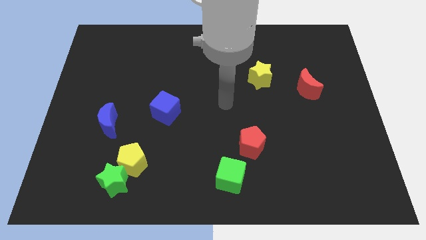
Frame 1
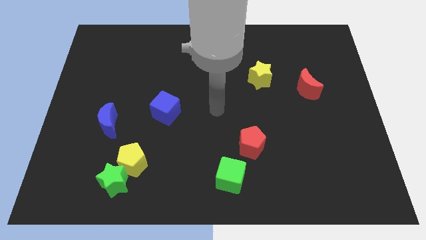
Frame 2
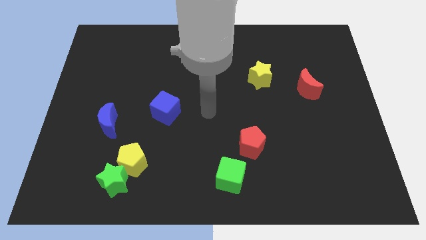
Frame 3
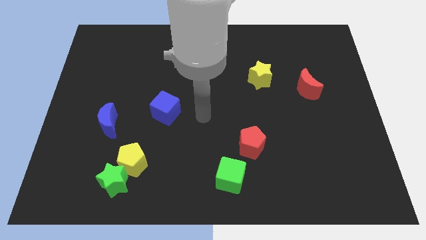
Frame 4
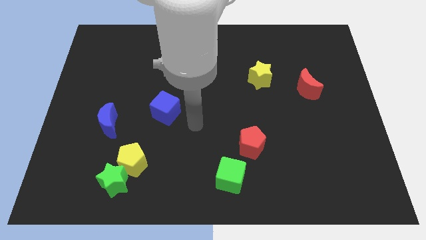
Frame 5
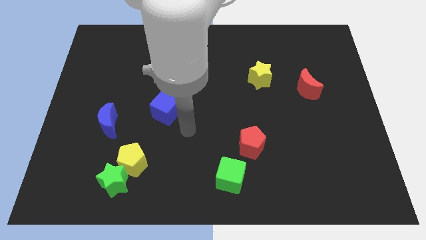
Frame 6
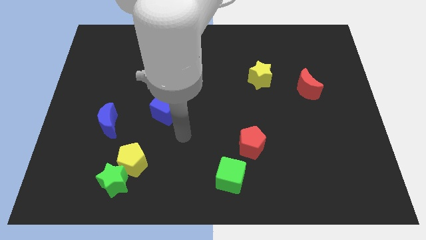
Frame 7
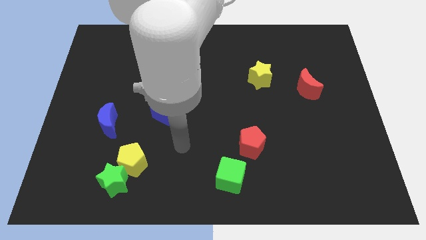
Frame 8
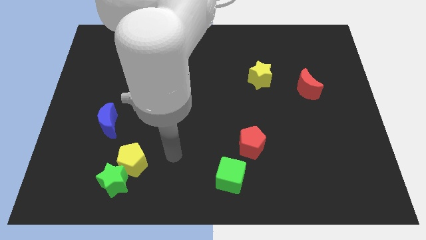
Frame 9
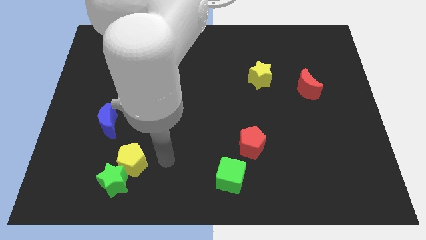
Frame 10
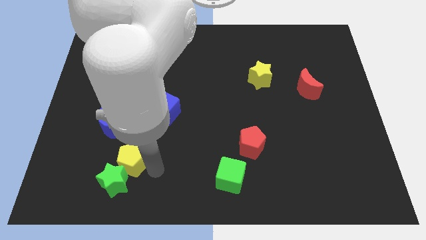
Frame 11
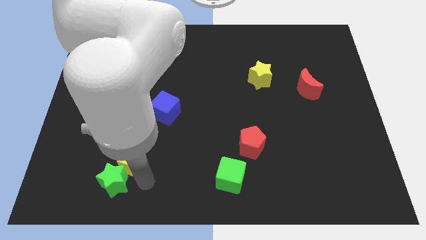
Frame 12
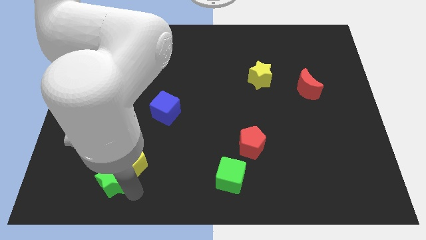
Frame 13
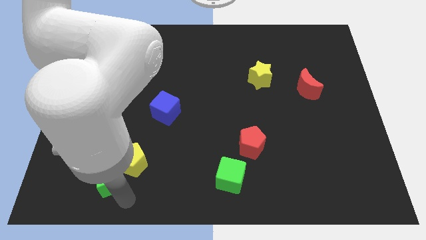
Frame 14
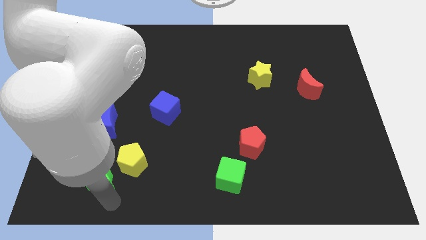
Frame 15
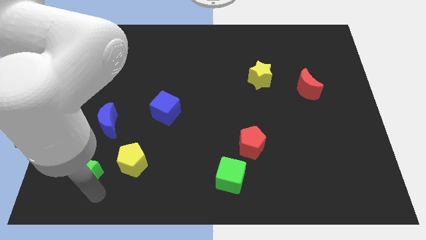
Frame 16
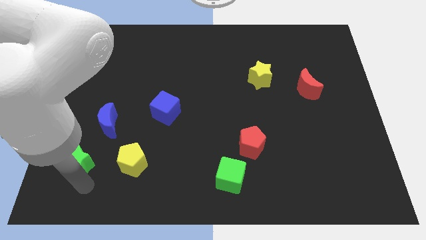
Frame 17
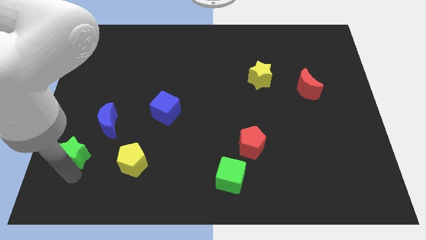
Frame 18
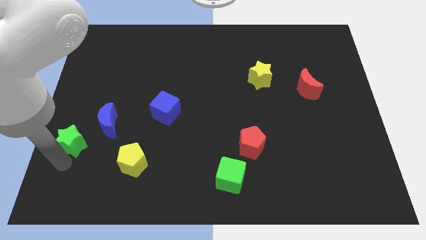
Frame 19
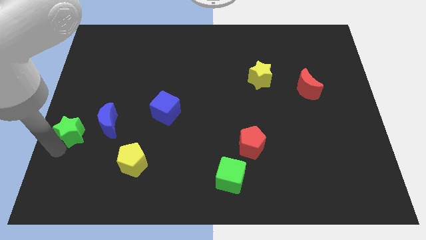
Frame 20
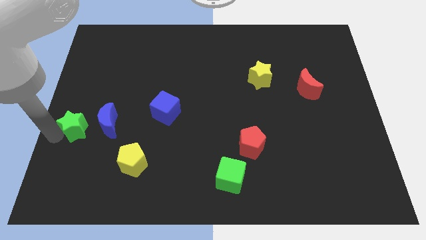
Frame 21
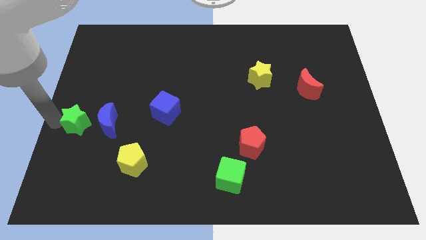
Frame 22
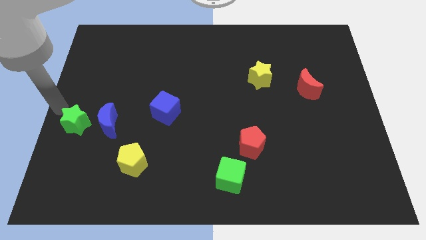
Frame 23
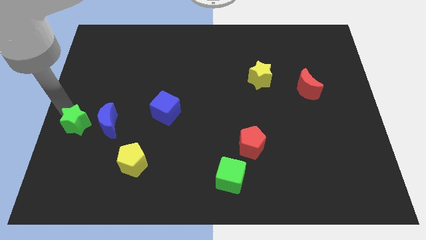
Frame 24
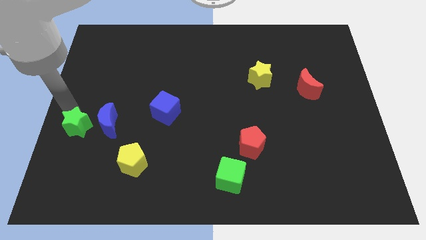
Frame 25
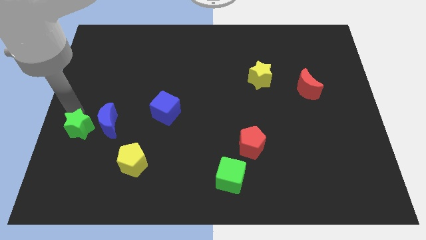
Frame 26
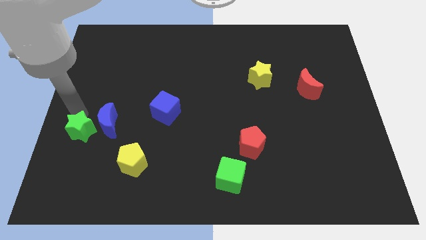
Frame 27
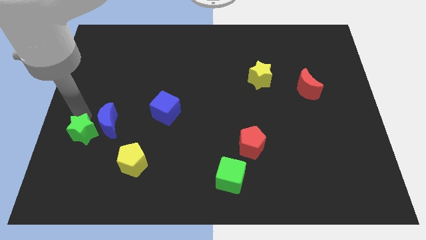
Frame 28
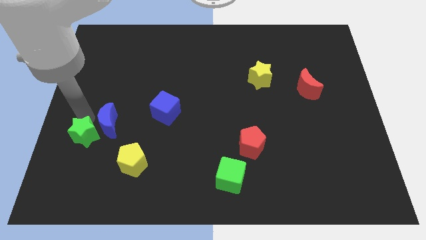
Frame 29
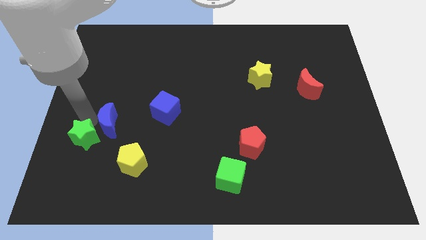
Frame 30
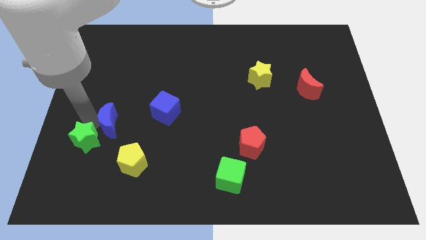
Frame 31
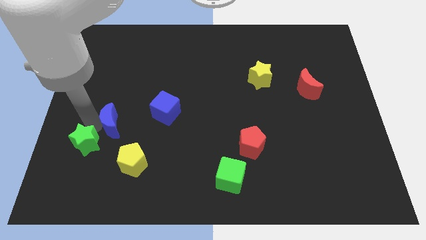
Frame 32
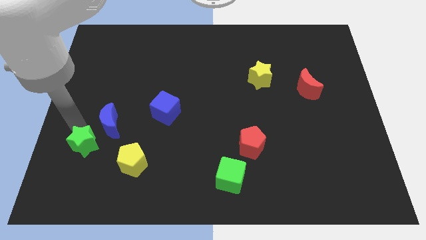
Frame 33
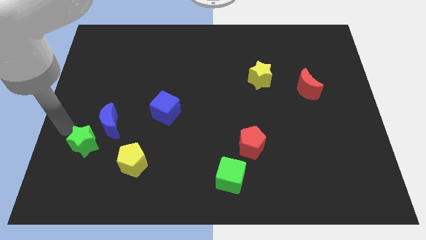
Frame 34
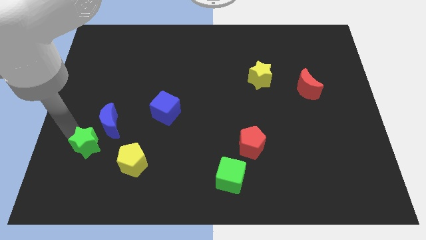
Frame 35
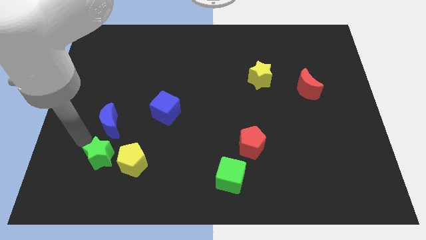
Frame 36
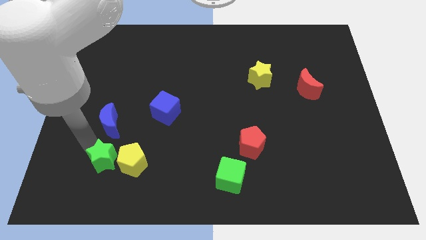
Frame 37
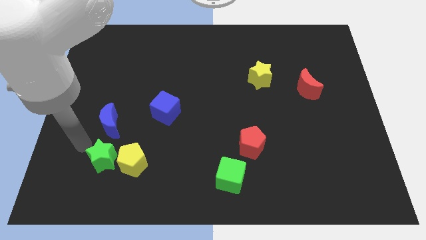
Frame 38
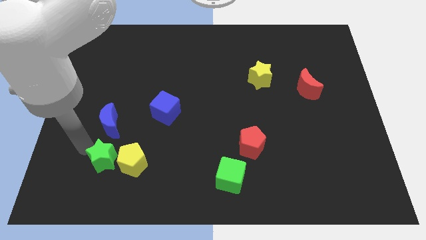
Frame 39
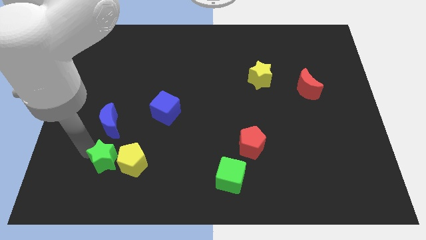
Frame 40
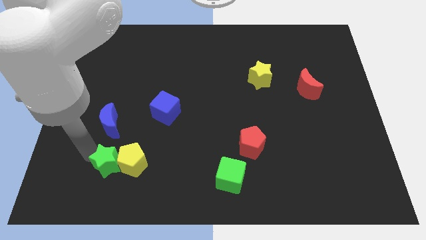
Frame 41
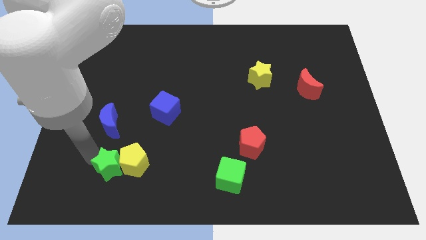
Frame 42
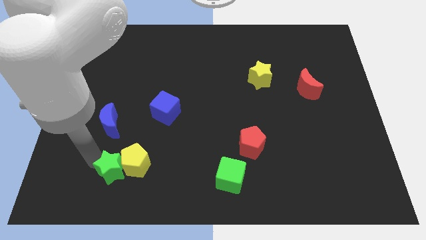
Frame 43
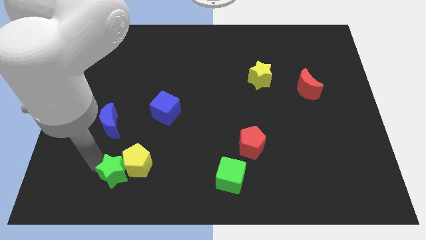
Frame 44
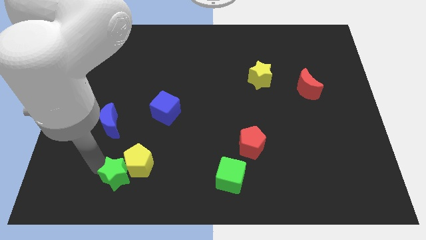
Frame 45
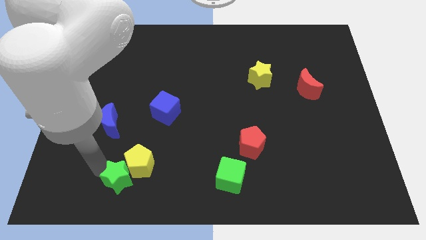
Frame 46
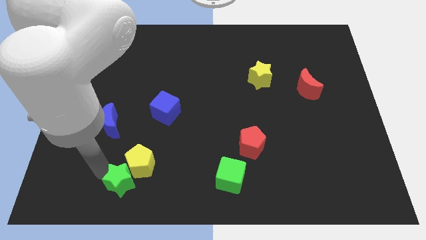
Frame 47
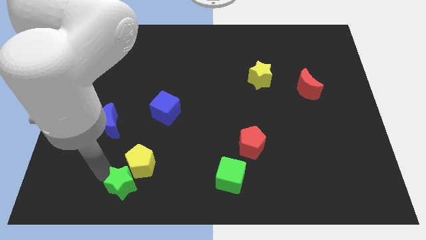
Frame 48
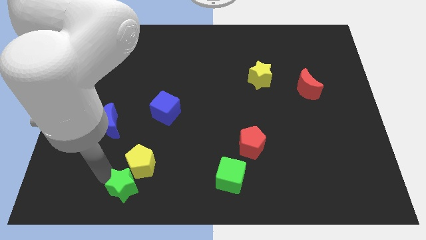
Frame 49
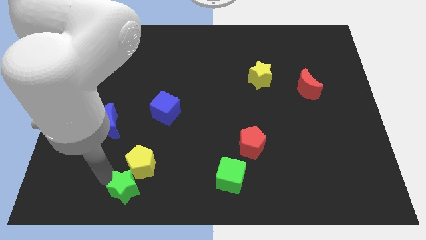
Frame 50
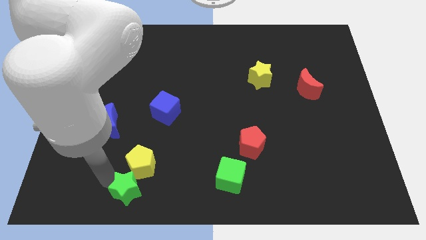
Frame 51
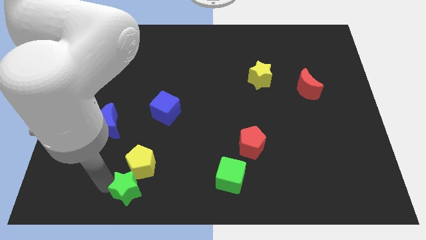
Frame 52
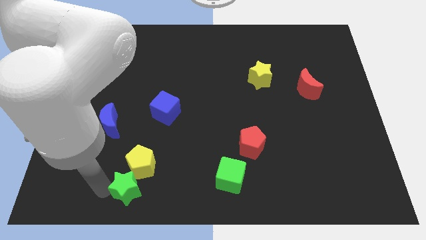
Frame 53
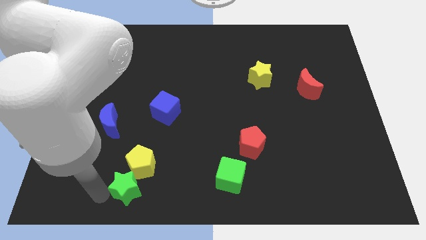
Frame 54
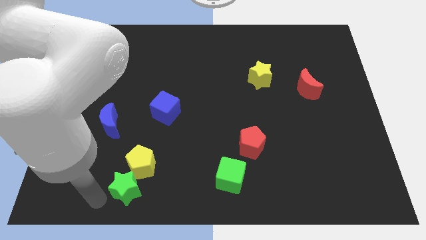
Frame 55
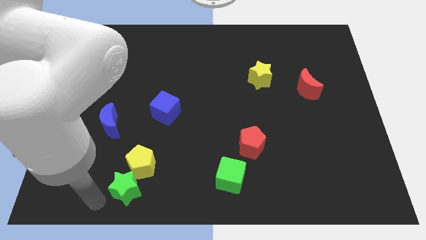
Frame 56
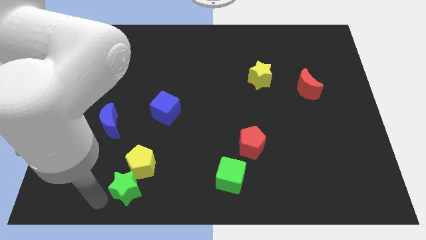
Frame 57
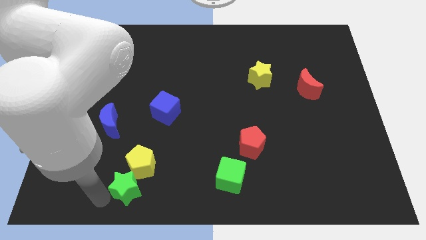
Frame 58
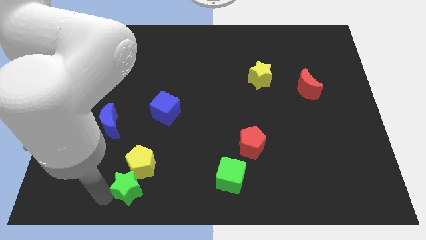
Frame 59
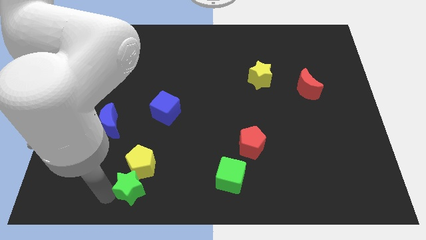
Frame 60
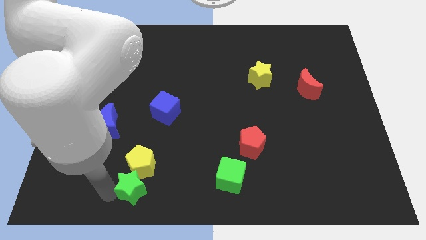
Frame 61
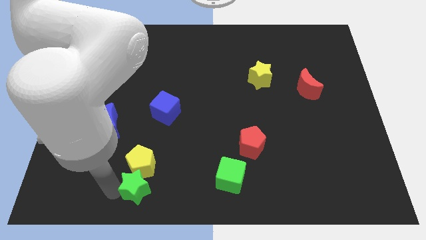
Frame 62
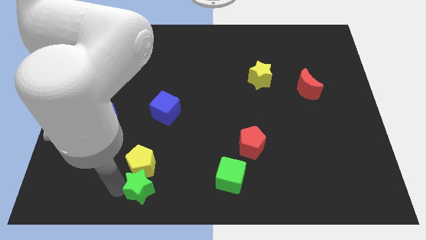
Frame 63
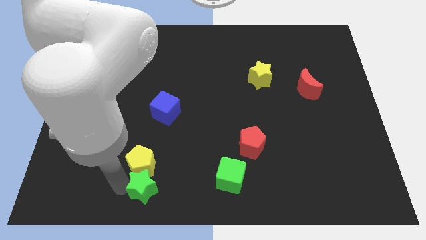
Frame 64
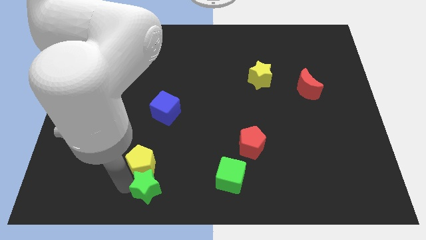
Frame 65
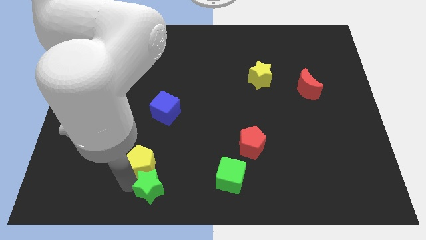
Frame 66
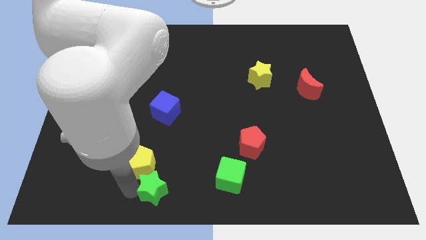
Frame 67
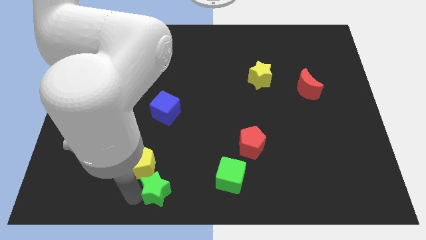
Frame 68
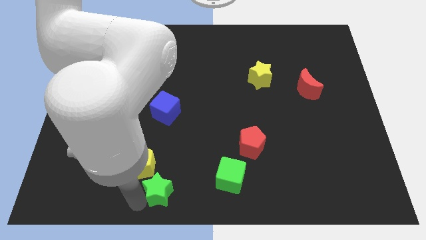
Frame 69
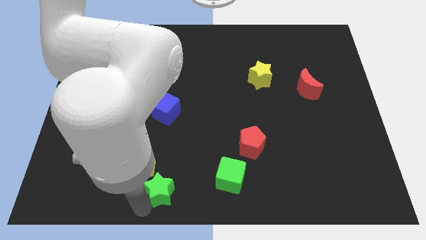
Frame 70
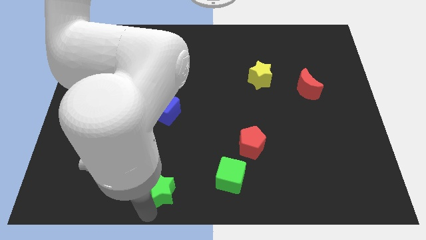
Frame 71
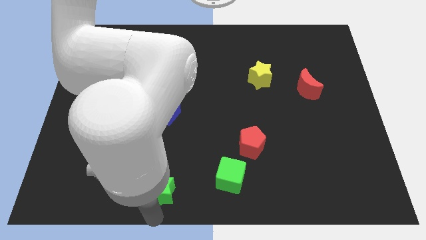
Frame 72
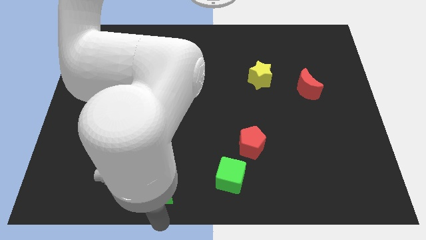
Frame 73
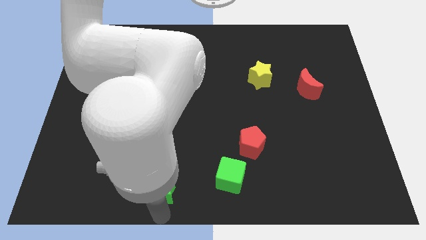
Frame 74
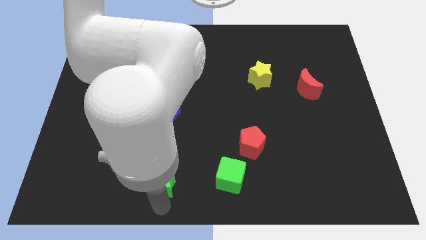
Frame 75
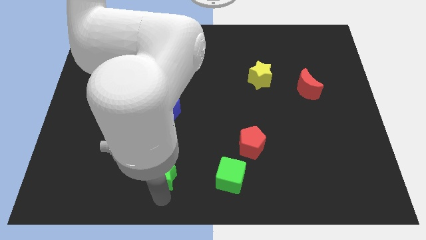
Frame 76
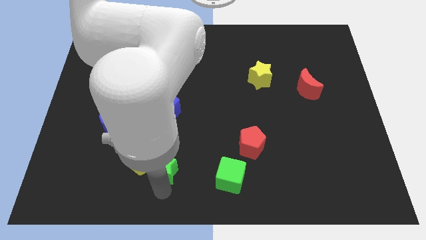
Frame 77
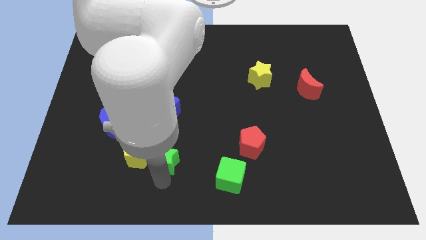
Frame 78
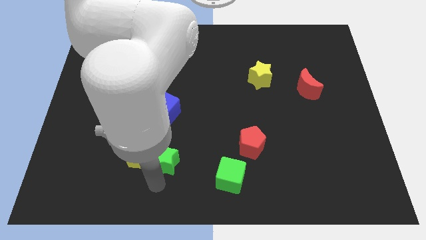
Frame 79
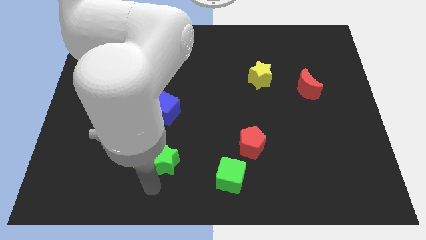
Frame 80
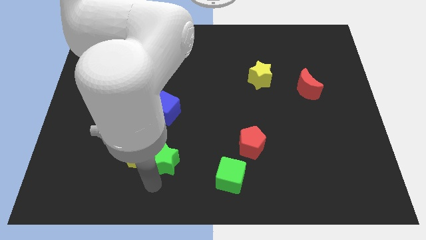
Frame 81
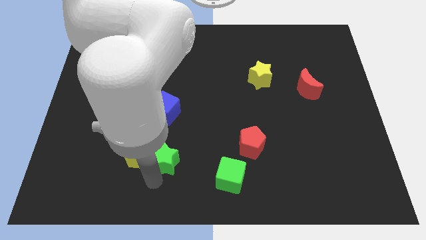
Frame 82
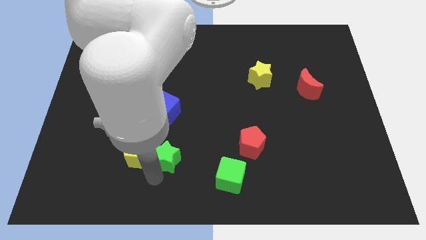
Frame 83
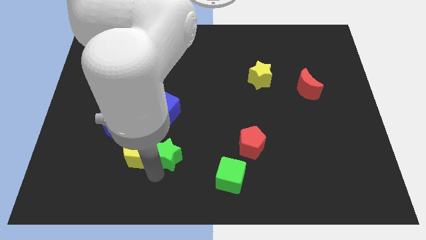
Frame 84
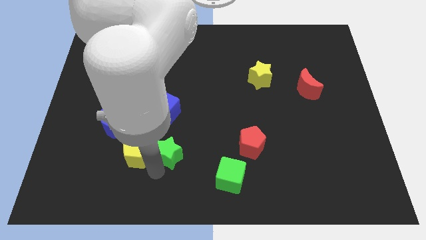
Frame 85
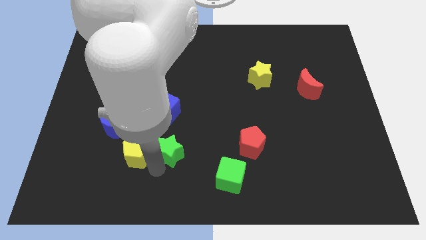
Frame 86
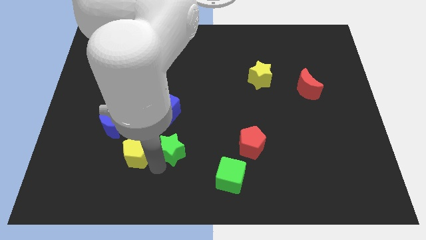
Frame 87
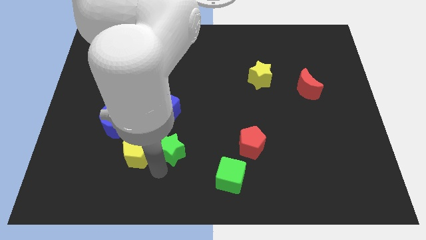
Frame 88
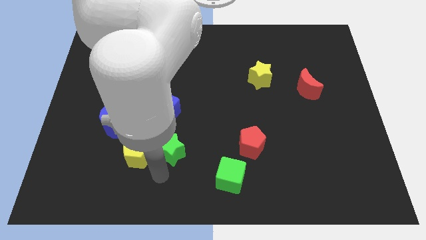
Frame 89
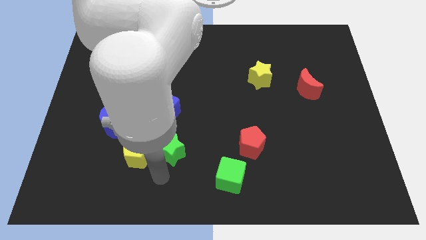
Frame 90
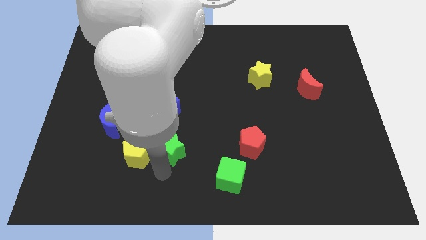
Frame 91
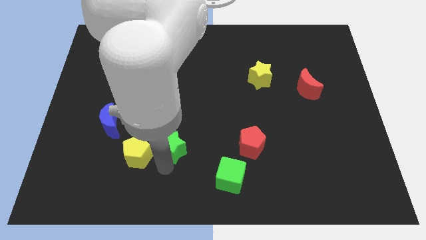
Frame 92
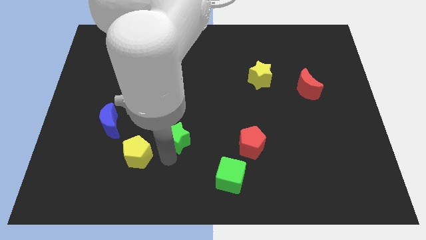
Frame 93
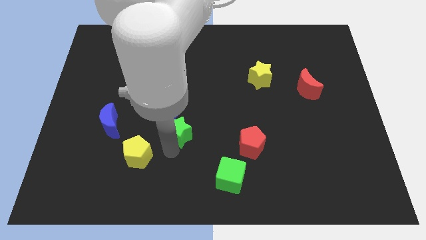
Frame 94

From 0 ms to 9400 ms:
put the green star to the center
